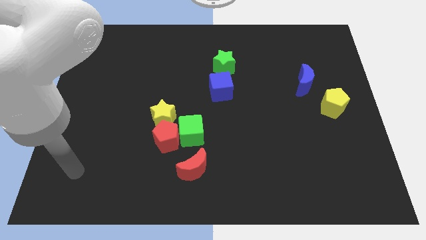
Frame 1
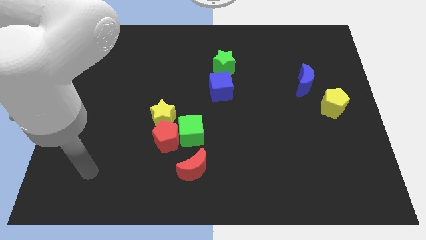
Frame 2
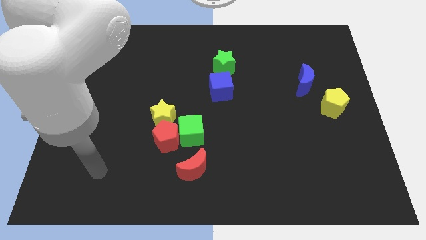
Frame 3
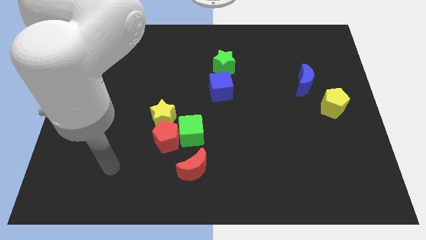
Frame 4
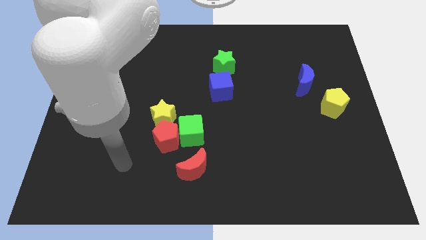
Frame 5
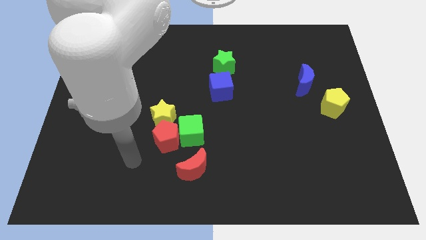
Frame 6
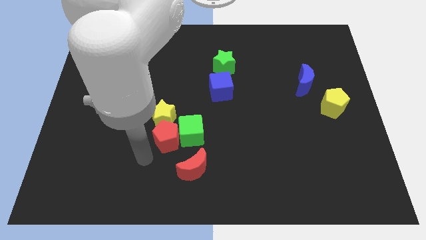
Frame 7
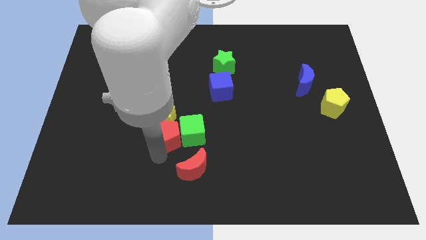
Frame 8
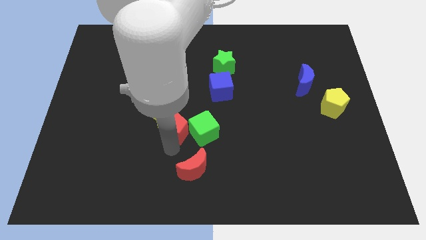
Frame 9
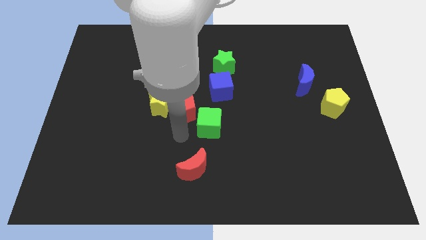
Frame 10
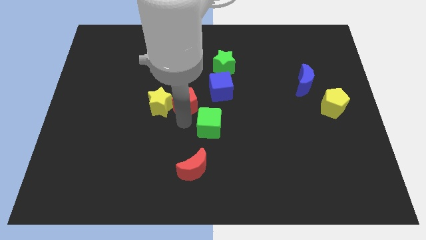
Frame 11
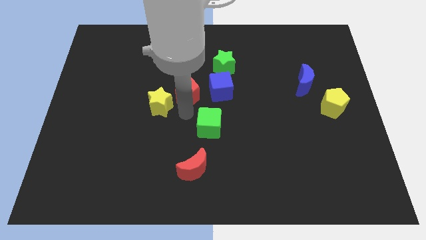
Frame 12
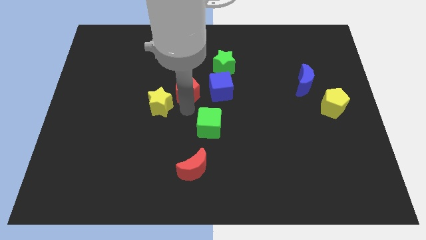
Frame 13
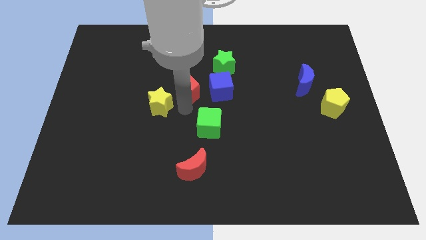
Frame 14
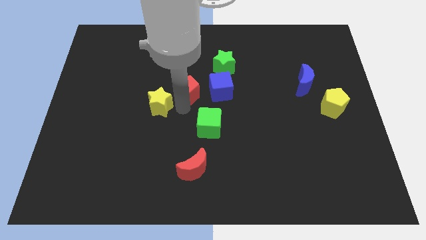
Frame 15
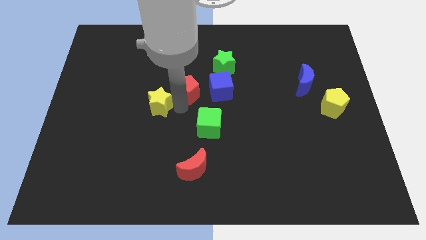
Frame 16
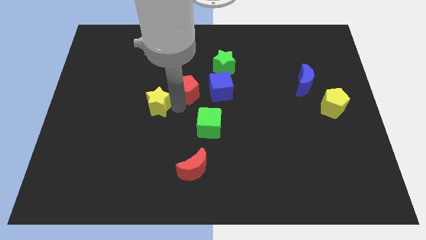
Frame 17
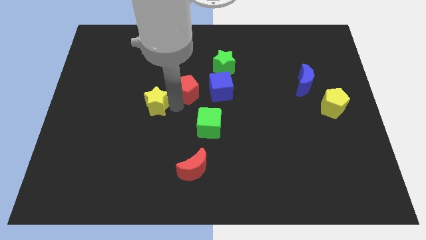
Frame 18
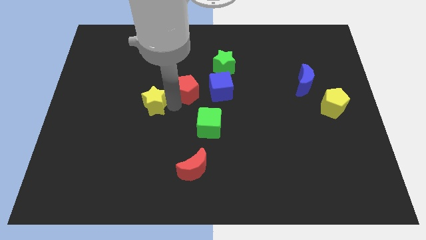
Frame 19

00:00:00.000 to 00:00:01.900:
pull the yellow star apart from the red pentagon and green cube

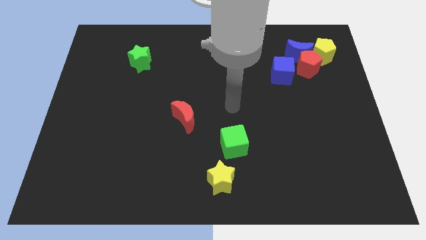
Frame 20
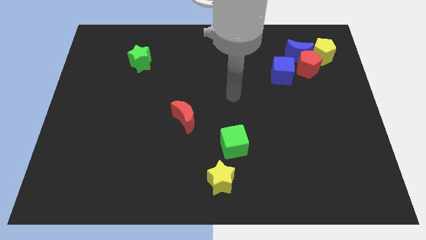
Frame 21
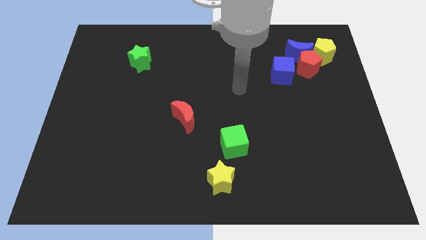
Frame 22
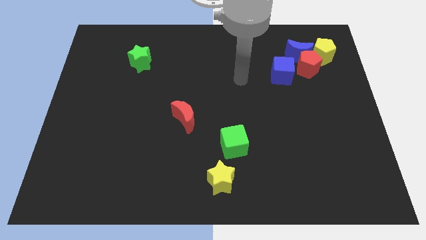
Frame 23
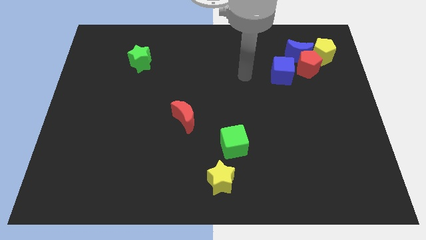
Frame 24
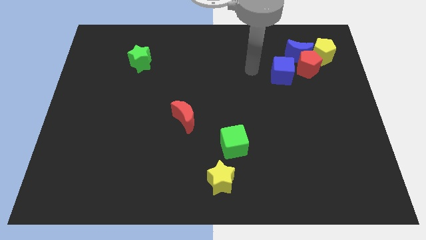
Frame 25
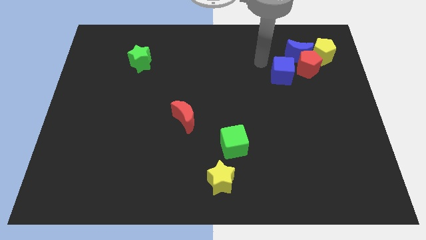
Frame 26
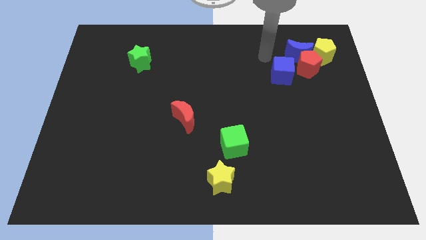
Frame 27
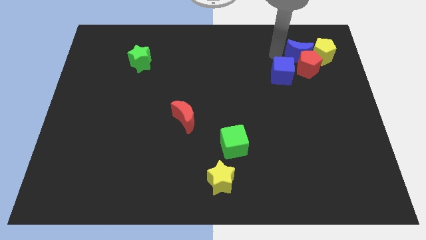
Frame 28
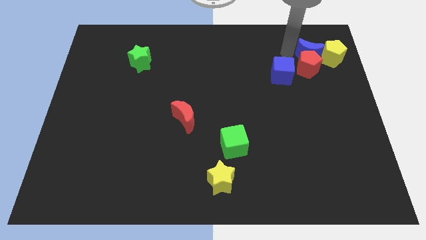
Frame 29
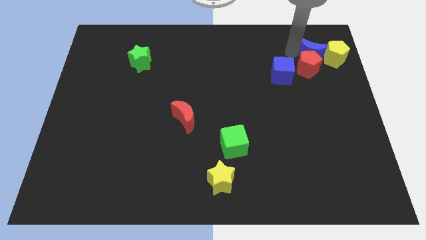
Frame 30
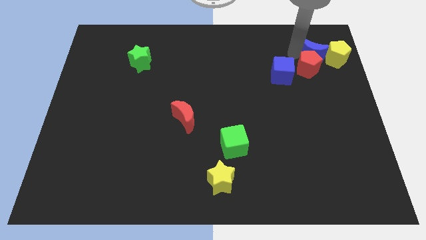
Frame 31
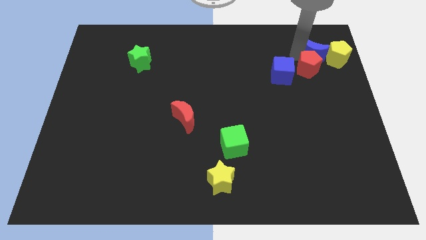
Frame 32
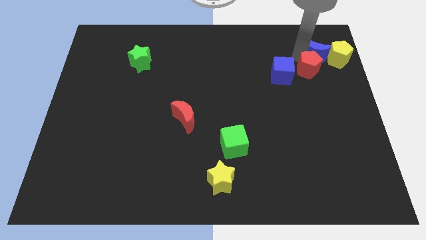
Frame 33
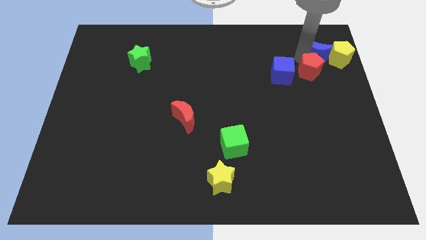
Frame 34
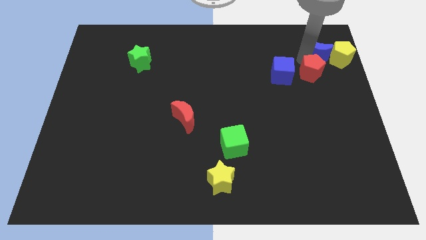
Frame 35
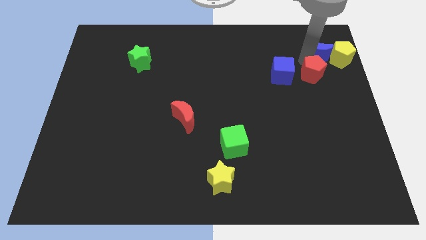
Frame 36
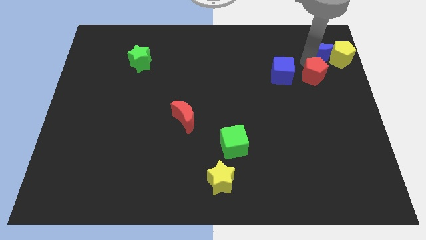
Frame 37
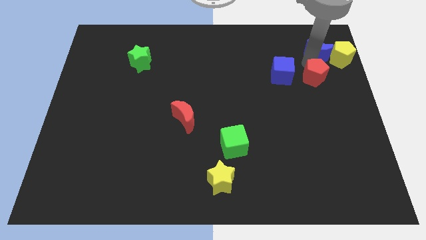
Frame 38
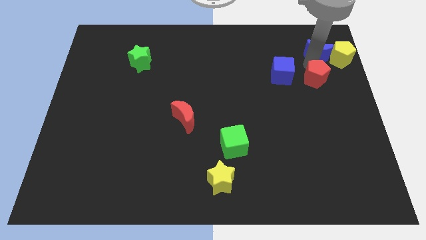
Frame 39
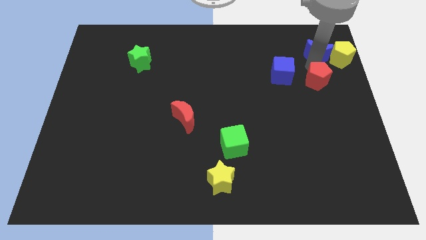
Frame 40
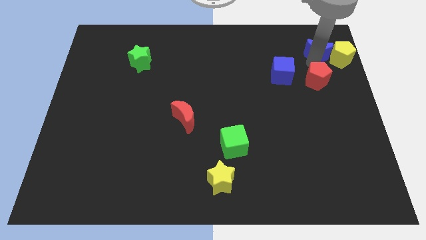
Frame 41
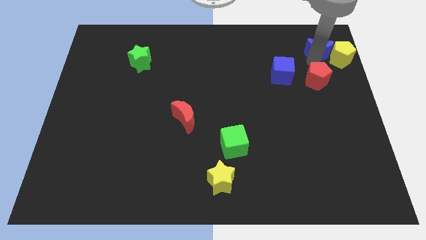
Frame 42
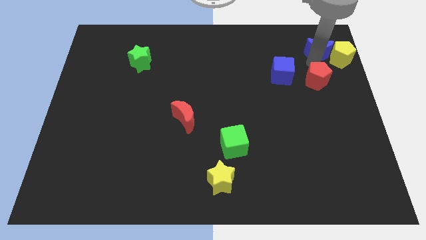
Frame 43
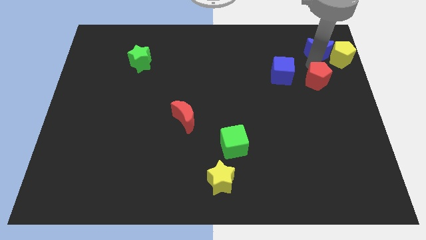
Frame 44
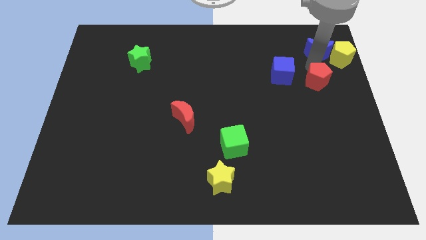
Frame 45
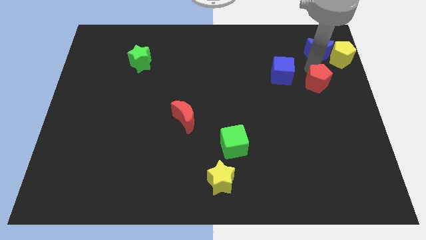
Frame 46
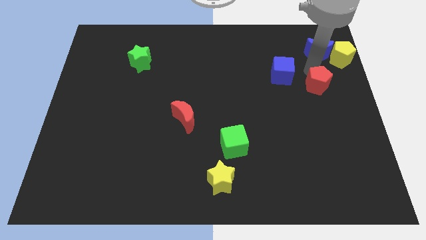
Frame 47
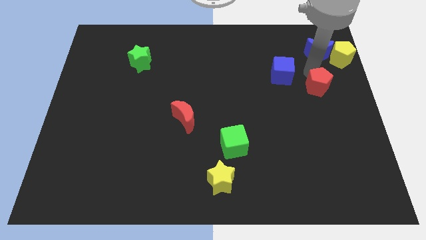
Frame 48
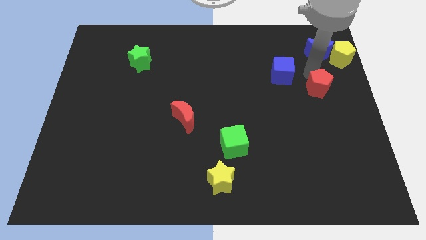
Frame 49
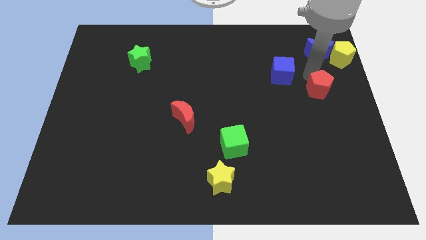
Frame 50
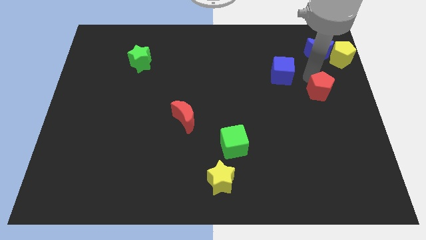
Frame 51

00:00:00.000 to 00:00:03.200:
pull the red pentagon apart from the blue moon, yellow pentagon, and blue cube

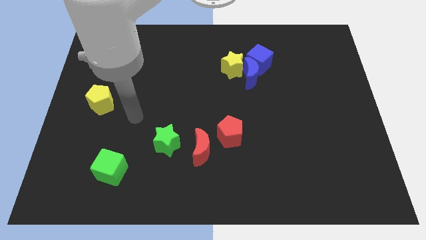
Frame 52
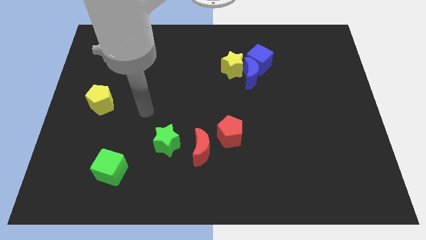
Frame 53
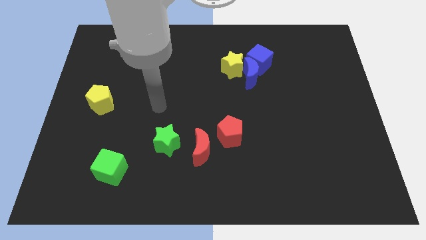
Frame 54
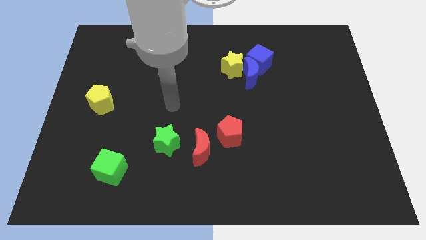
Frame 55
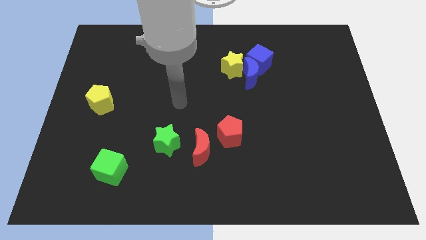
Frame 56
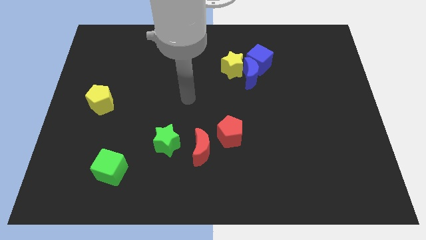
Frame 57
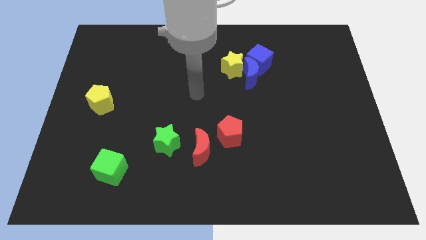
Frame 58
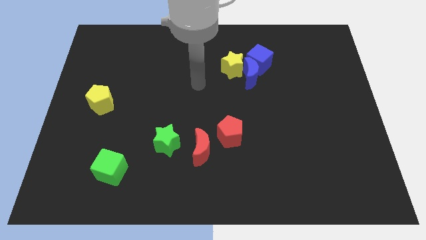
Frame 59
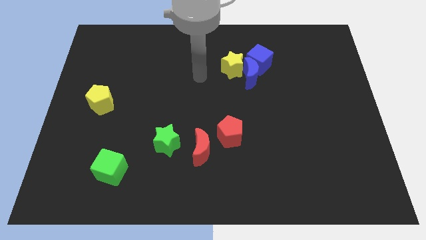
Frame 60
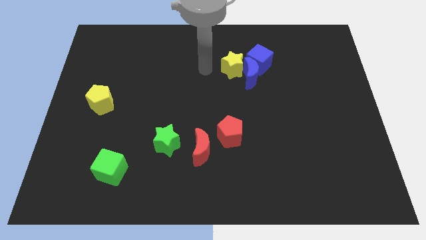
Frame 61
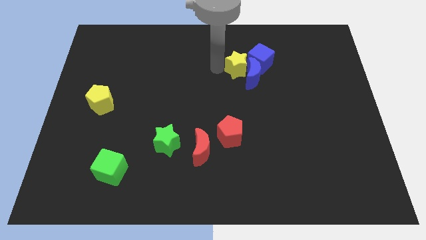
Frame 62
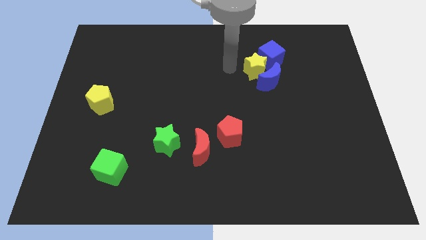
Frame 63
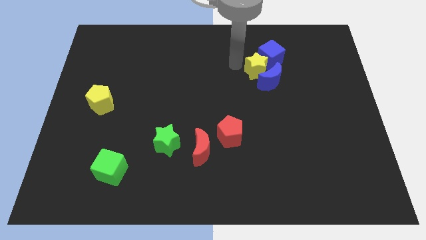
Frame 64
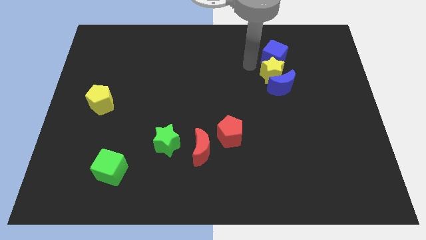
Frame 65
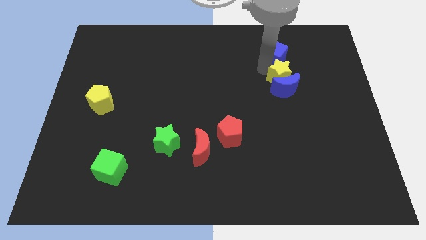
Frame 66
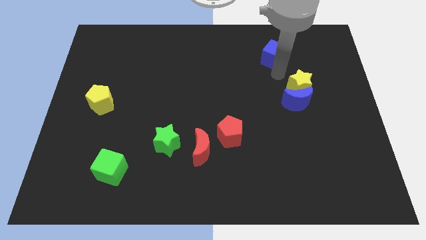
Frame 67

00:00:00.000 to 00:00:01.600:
separate the blue moon from the blue cube and yellow star

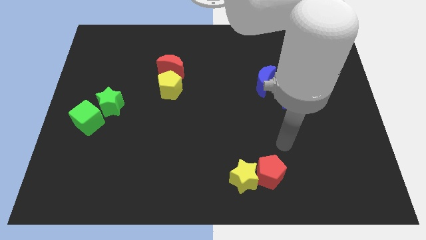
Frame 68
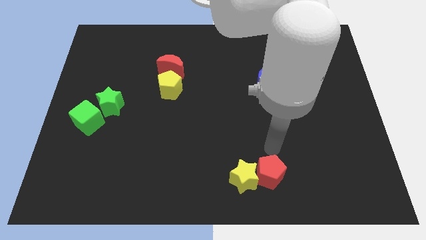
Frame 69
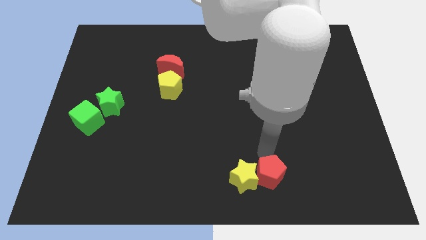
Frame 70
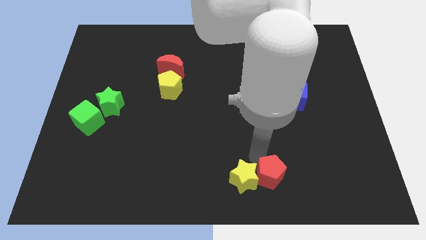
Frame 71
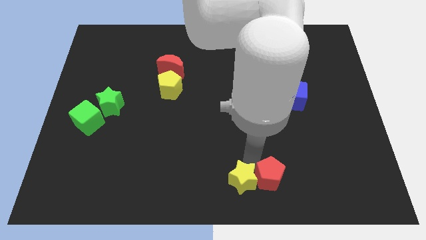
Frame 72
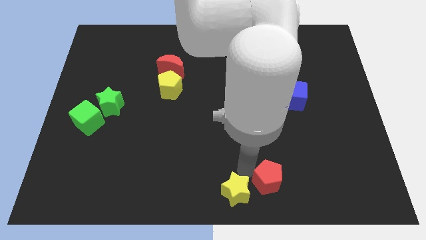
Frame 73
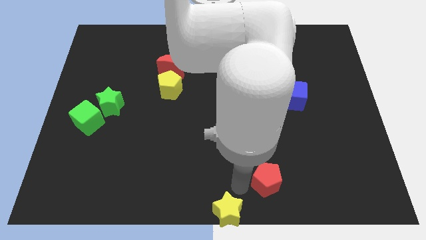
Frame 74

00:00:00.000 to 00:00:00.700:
pull the red pentagon apart from the yellow star

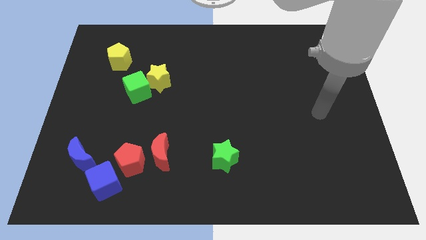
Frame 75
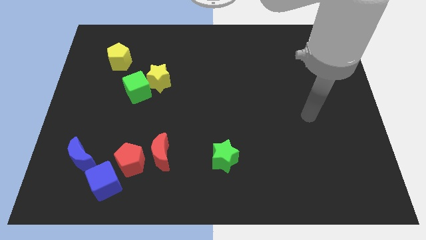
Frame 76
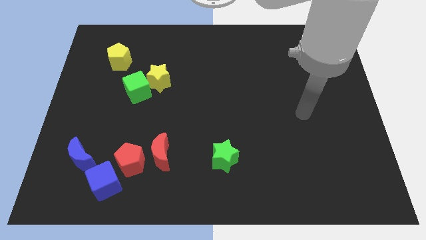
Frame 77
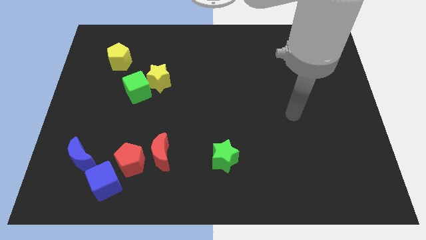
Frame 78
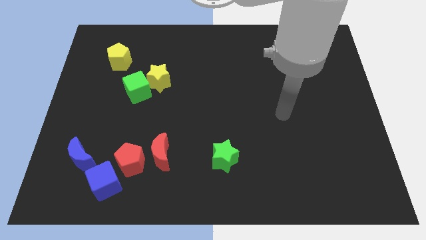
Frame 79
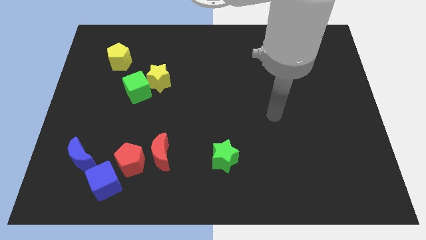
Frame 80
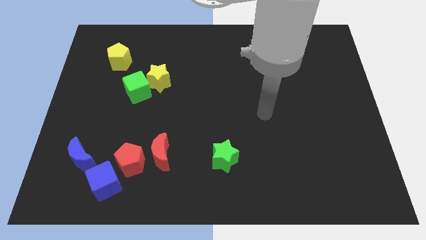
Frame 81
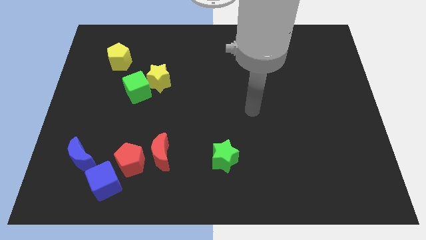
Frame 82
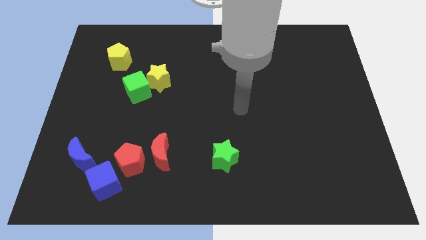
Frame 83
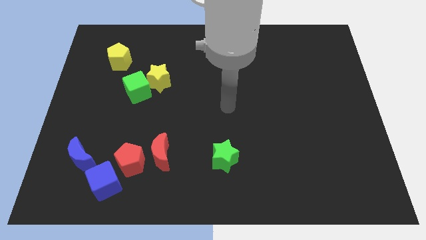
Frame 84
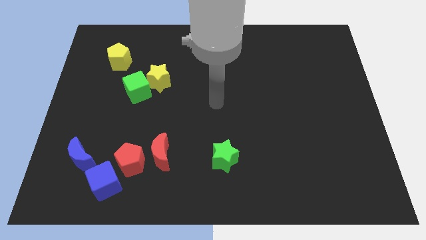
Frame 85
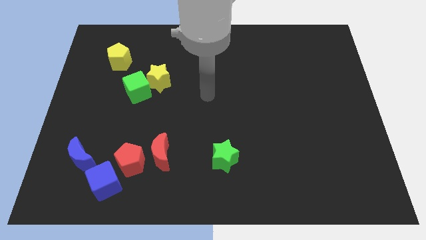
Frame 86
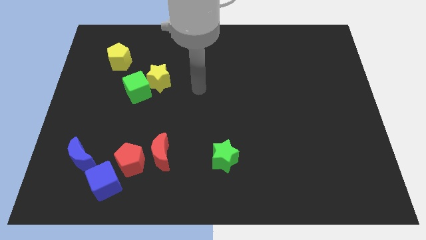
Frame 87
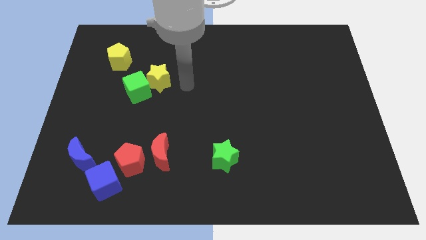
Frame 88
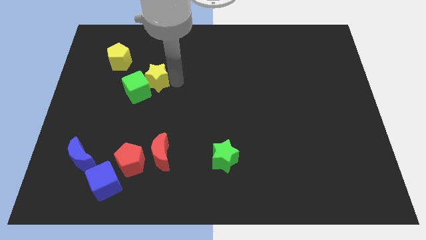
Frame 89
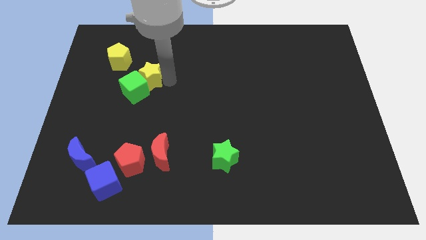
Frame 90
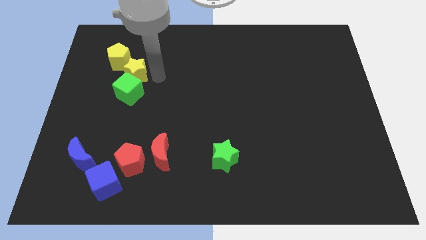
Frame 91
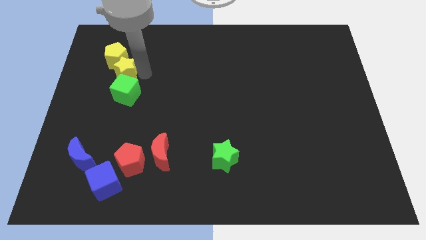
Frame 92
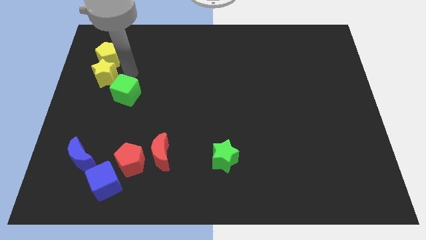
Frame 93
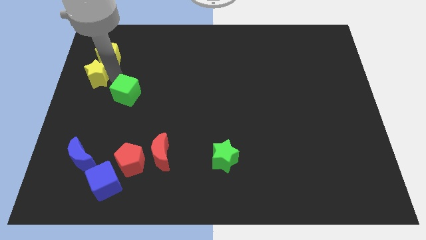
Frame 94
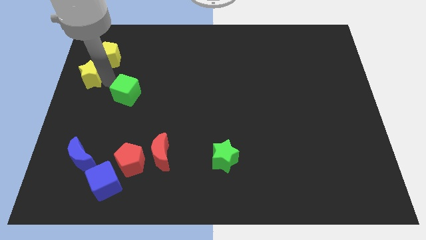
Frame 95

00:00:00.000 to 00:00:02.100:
separate the green cube from the yellow star

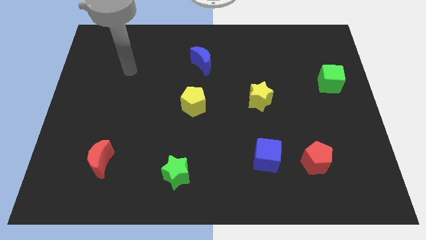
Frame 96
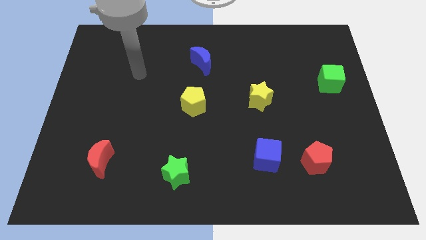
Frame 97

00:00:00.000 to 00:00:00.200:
separate the red pentagon from the blue cube
